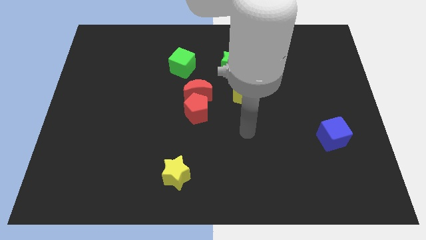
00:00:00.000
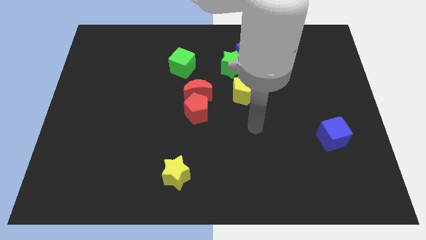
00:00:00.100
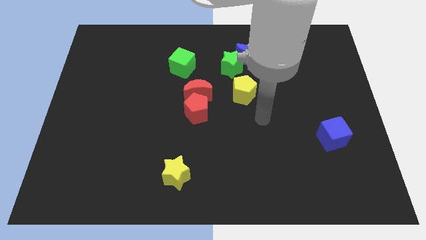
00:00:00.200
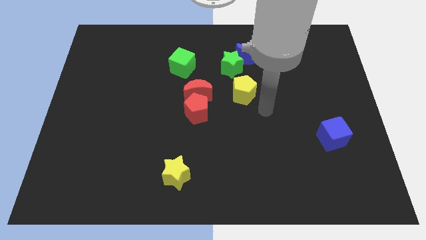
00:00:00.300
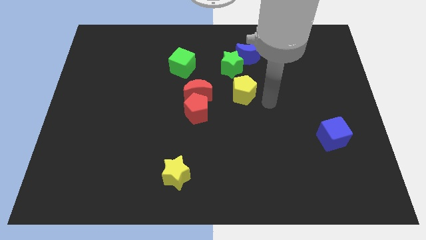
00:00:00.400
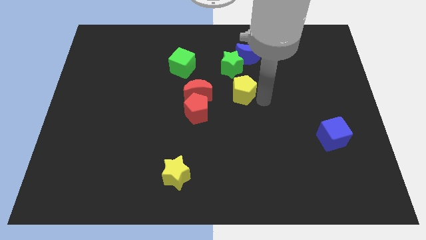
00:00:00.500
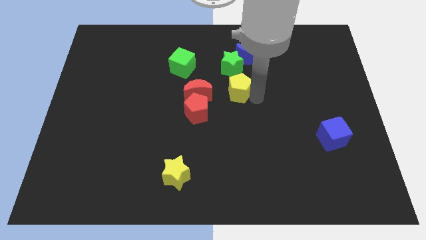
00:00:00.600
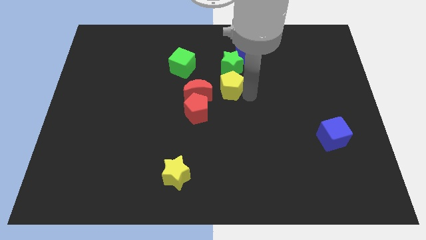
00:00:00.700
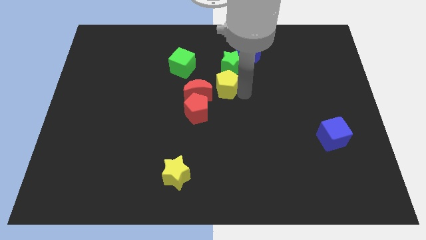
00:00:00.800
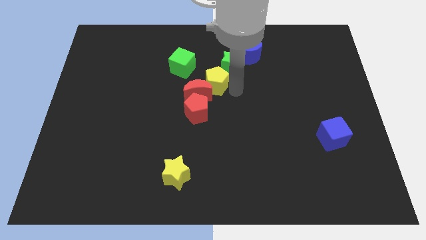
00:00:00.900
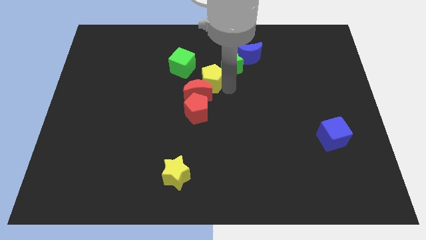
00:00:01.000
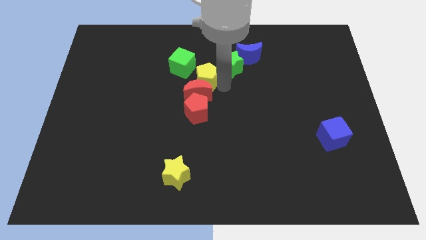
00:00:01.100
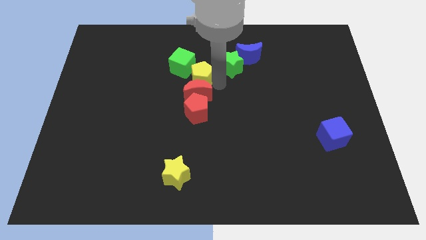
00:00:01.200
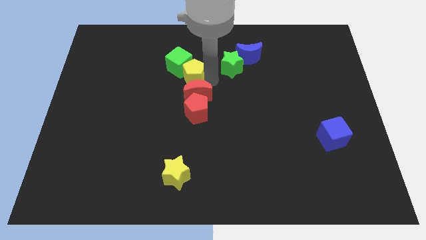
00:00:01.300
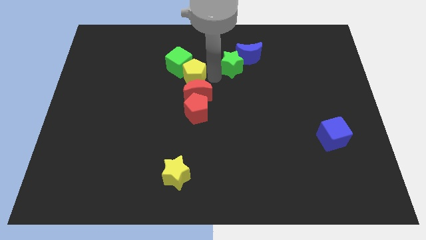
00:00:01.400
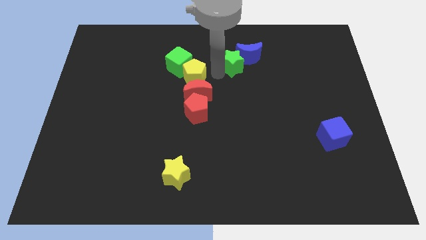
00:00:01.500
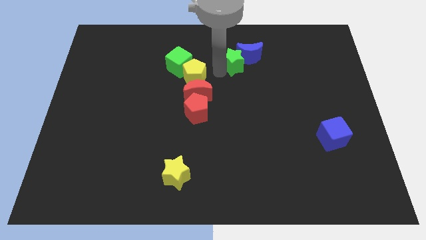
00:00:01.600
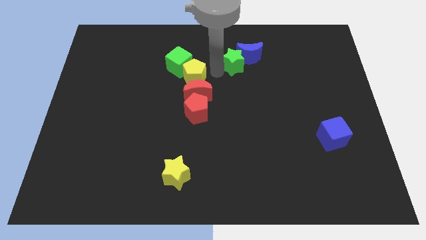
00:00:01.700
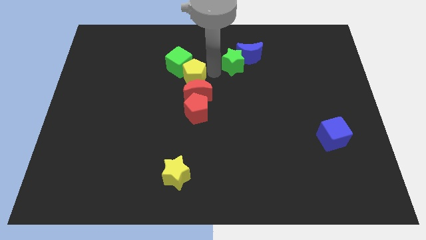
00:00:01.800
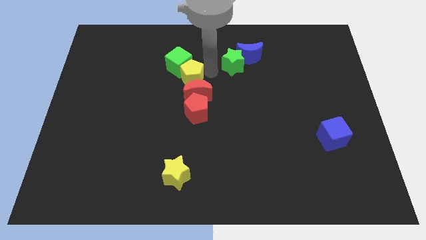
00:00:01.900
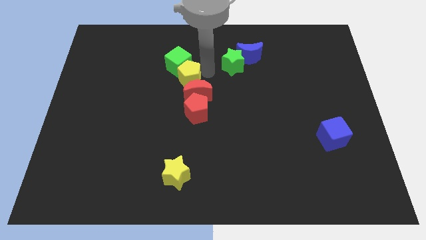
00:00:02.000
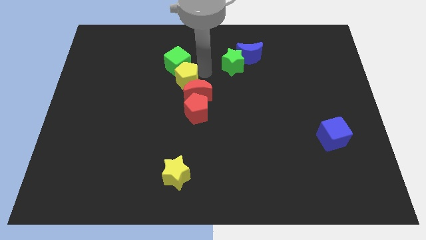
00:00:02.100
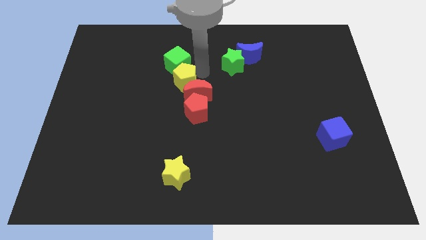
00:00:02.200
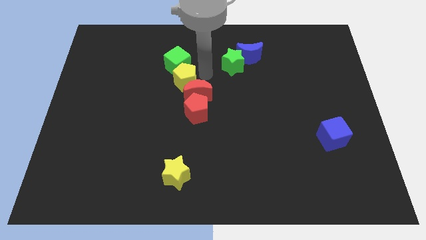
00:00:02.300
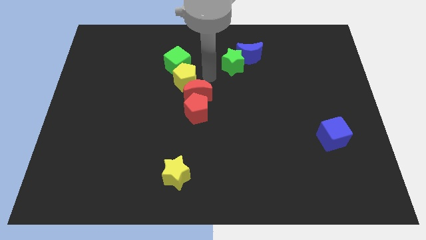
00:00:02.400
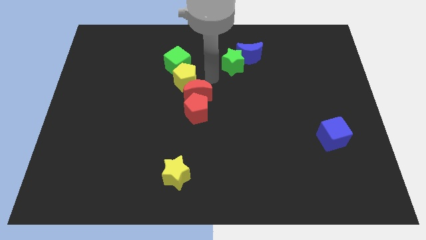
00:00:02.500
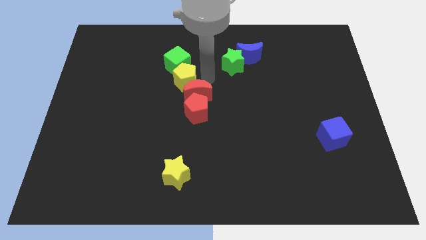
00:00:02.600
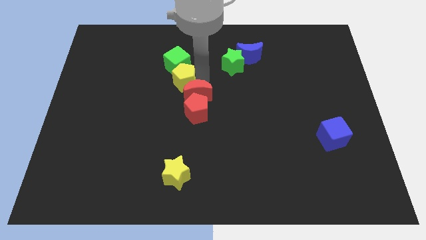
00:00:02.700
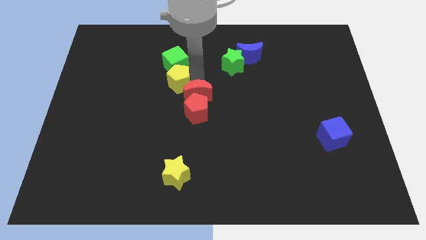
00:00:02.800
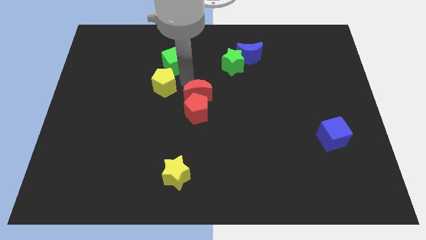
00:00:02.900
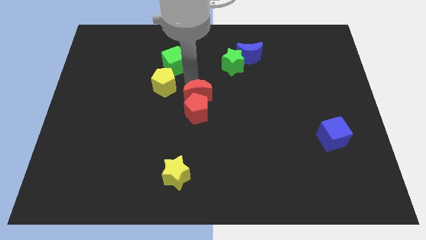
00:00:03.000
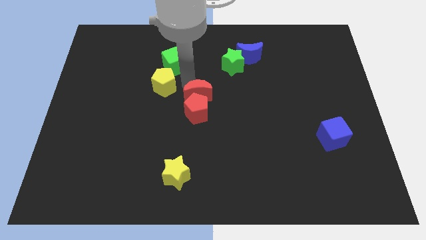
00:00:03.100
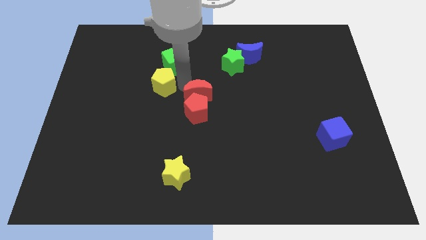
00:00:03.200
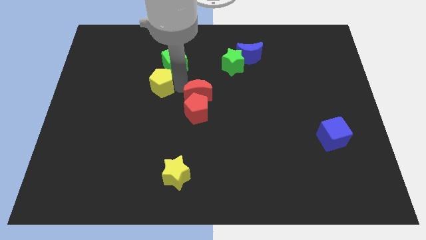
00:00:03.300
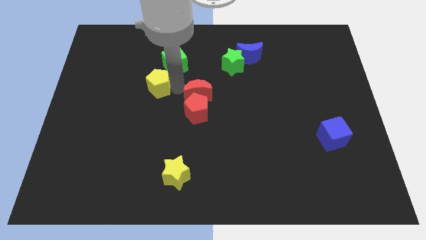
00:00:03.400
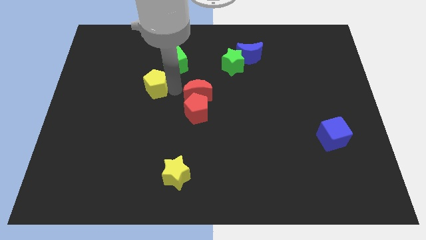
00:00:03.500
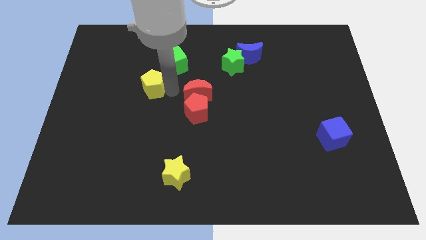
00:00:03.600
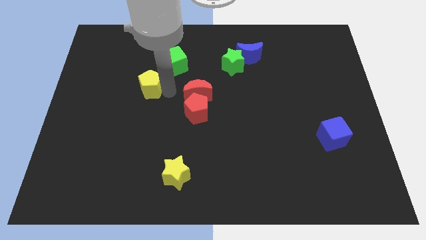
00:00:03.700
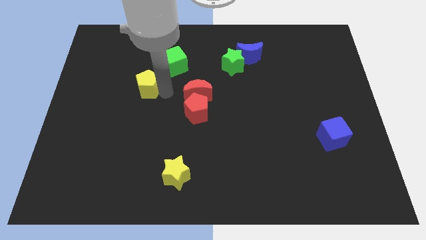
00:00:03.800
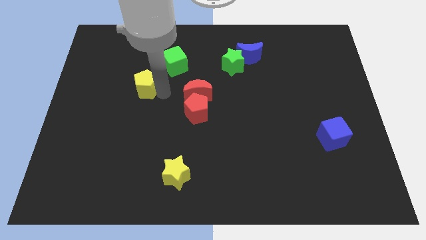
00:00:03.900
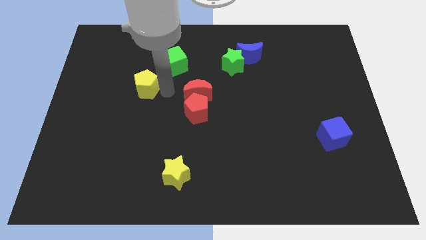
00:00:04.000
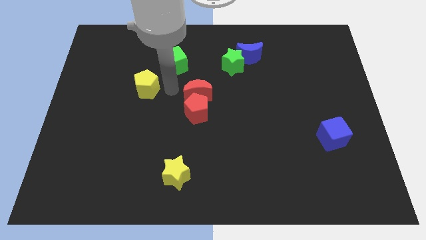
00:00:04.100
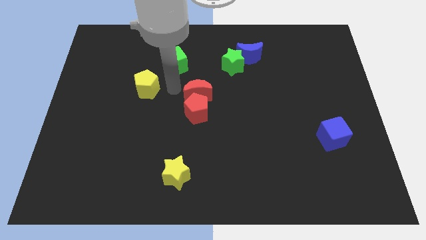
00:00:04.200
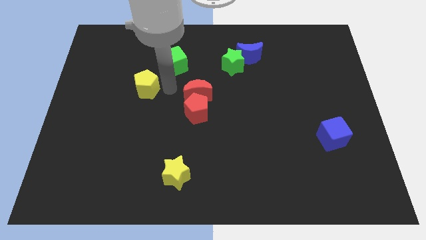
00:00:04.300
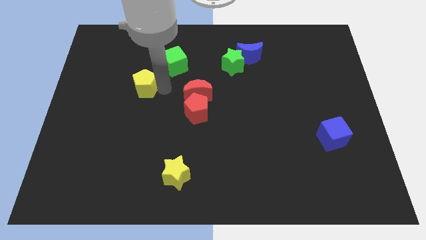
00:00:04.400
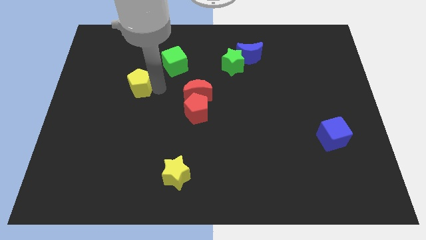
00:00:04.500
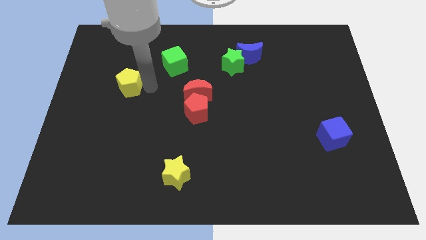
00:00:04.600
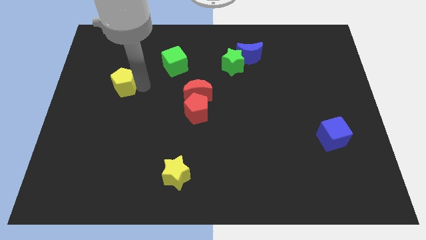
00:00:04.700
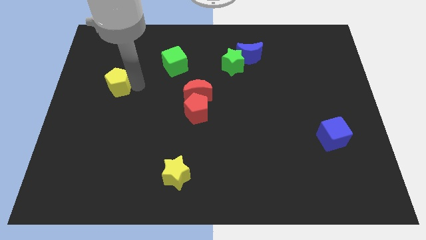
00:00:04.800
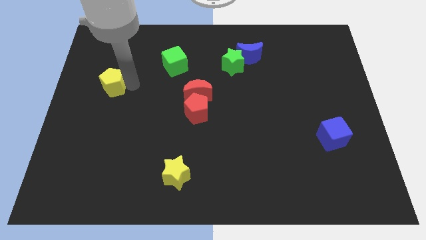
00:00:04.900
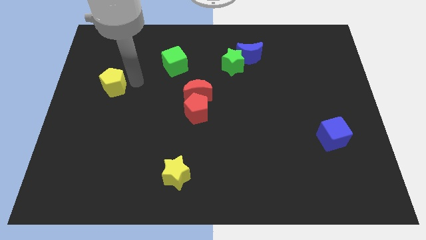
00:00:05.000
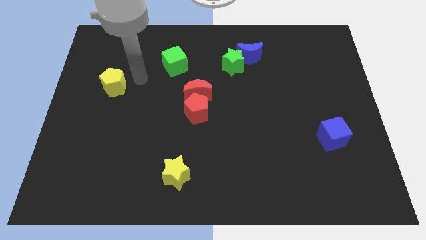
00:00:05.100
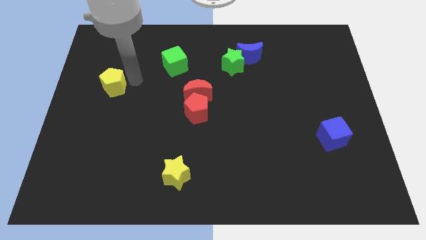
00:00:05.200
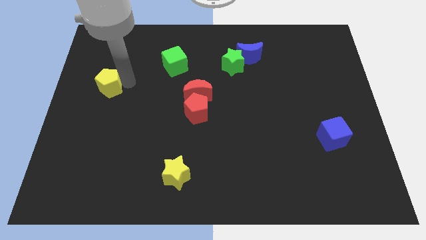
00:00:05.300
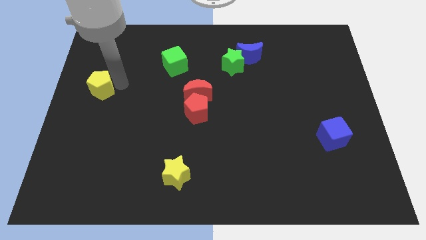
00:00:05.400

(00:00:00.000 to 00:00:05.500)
put the yellow pentagon to the left side of the board
